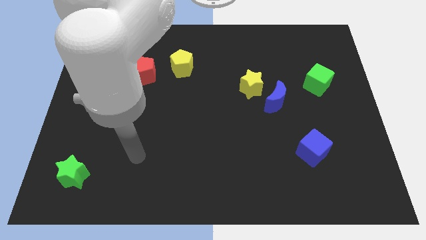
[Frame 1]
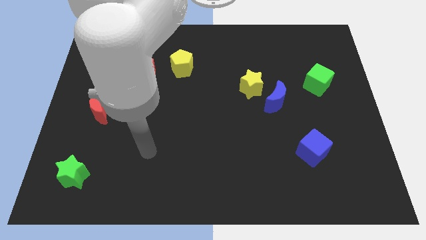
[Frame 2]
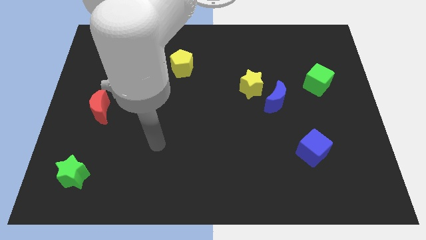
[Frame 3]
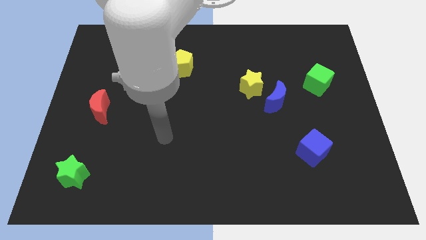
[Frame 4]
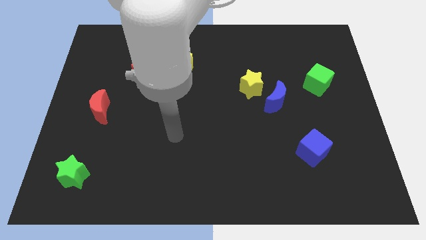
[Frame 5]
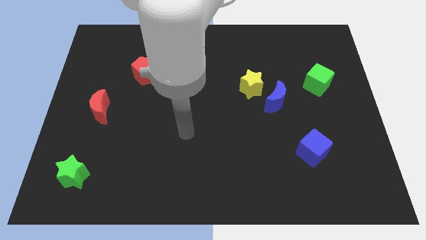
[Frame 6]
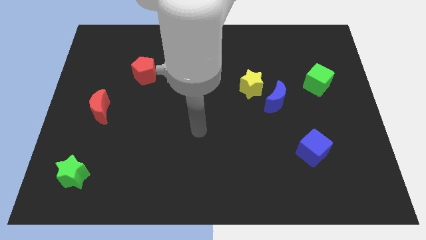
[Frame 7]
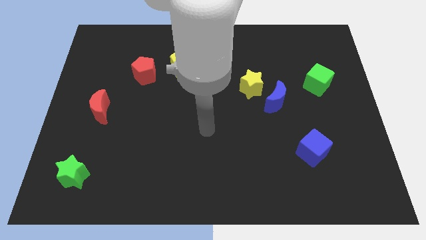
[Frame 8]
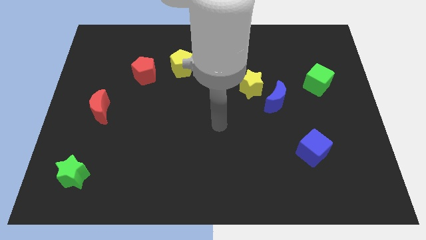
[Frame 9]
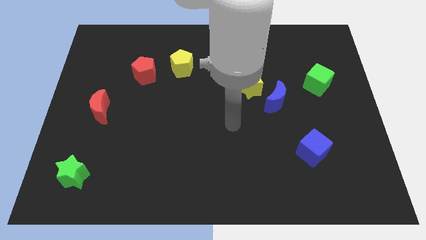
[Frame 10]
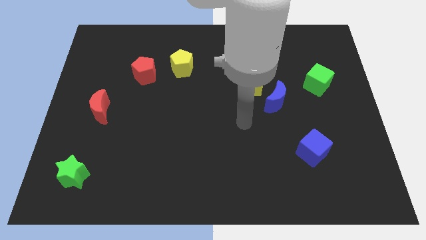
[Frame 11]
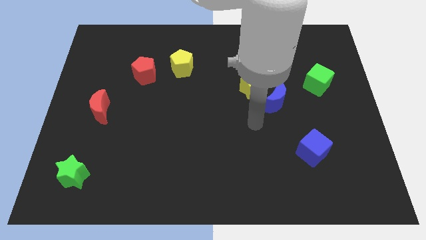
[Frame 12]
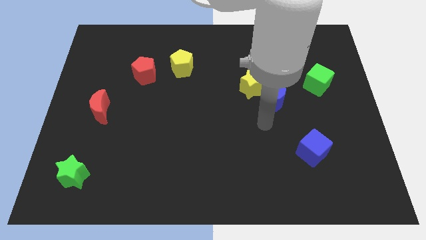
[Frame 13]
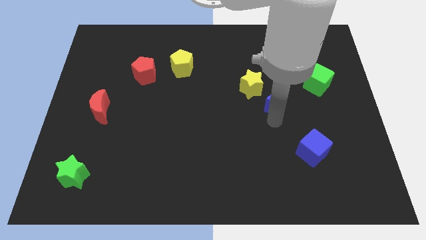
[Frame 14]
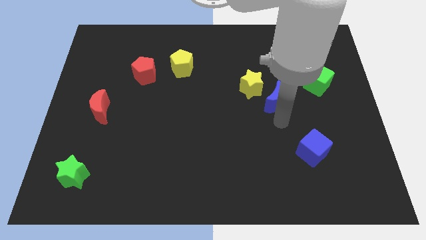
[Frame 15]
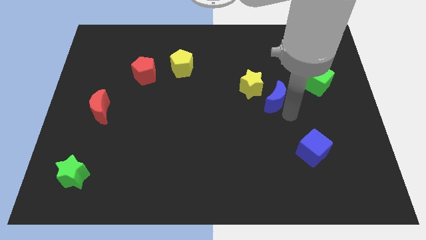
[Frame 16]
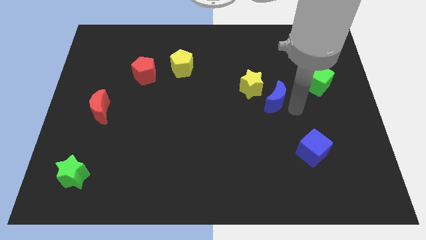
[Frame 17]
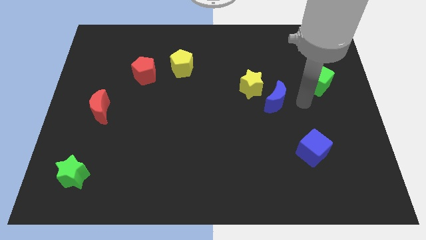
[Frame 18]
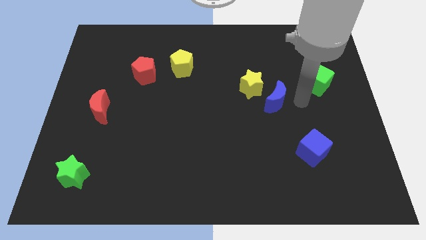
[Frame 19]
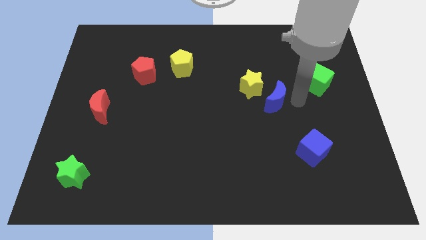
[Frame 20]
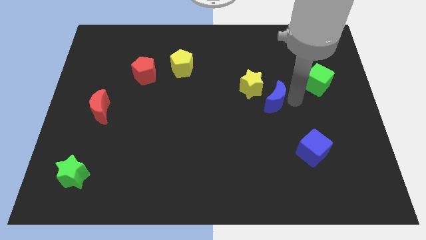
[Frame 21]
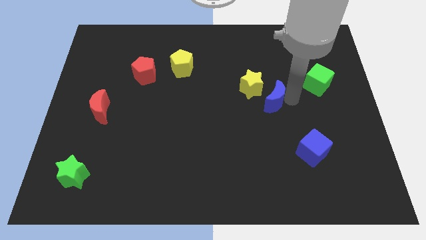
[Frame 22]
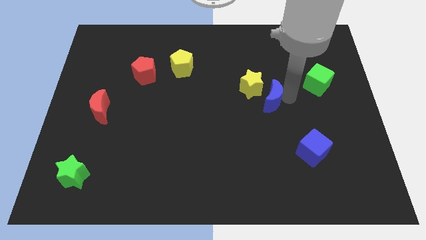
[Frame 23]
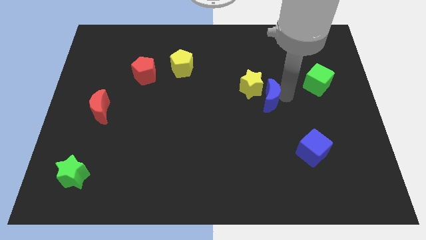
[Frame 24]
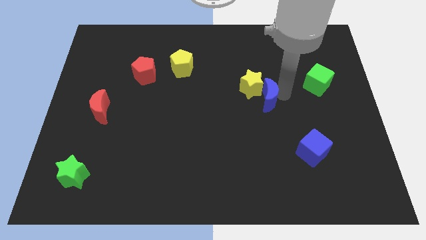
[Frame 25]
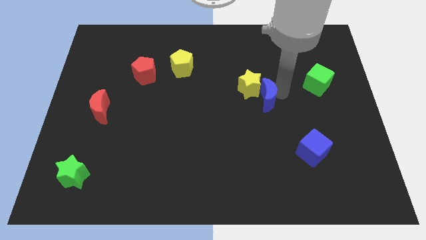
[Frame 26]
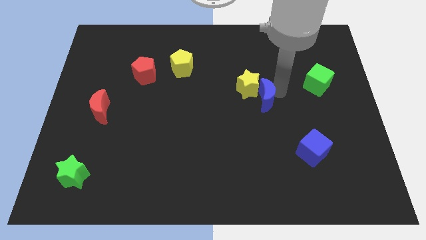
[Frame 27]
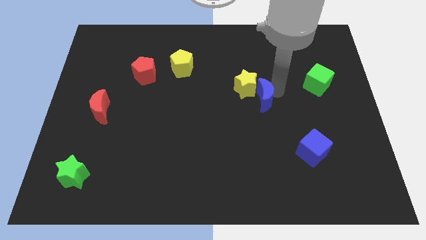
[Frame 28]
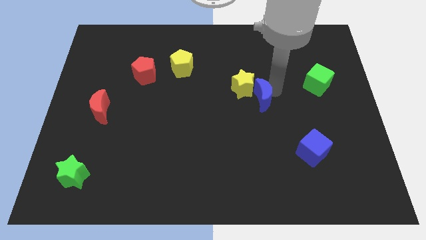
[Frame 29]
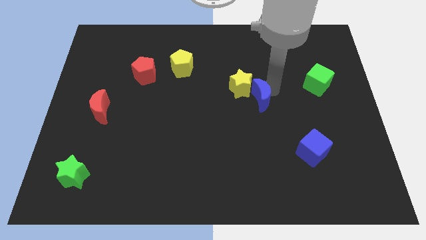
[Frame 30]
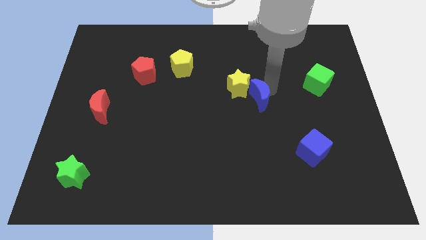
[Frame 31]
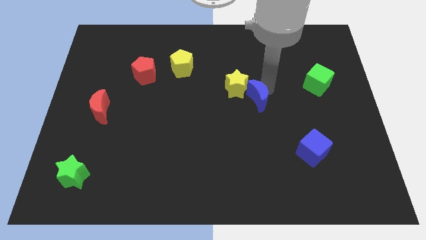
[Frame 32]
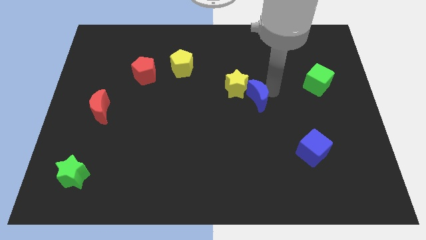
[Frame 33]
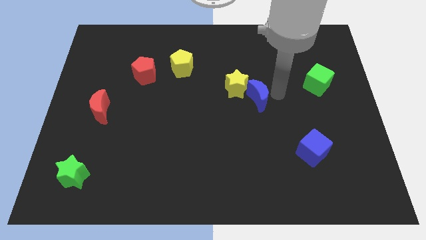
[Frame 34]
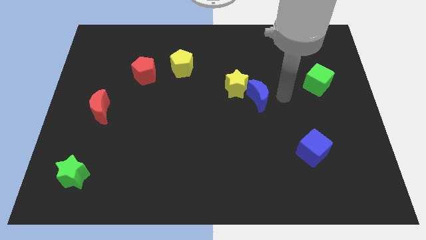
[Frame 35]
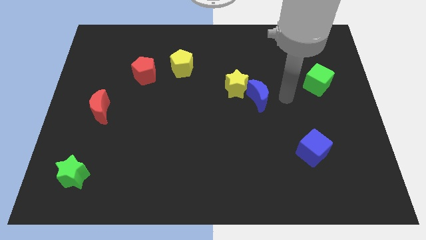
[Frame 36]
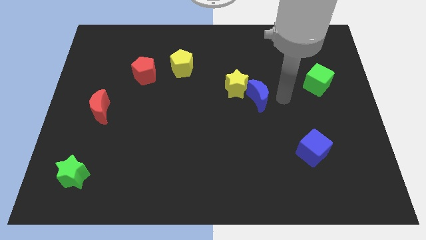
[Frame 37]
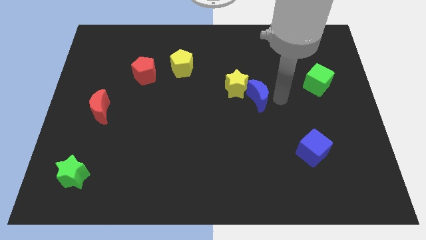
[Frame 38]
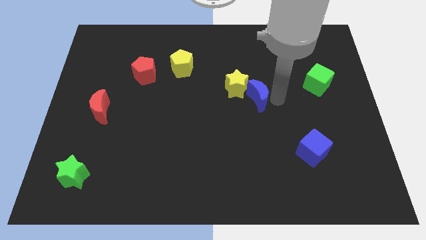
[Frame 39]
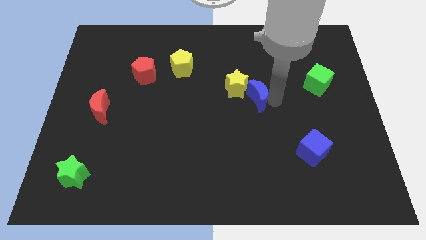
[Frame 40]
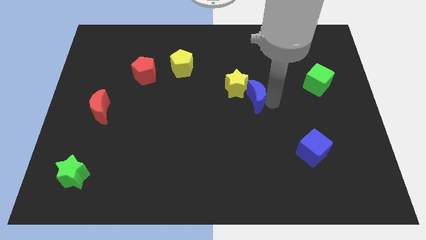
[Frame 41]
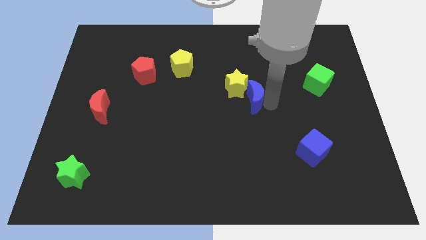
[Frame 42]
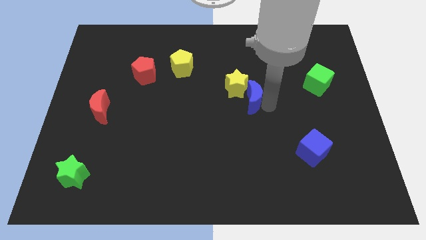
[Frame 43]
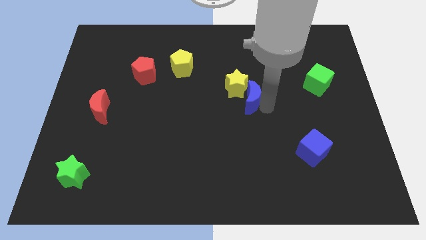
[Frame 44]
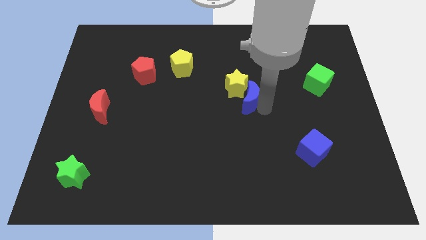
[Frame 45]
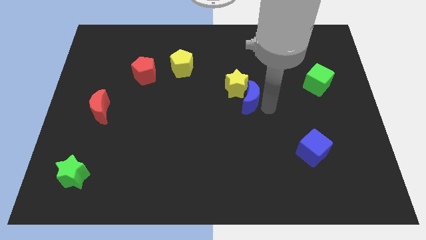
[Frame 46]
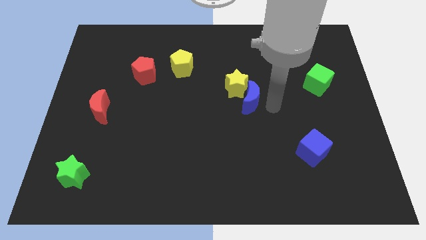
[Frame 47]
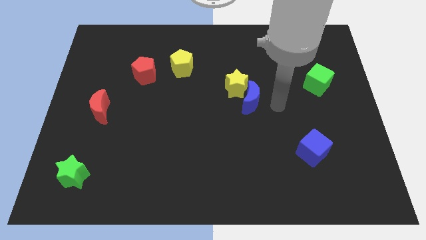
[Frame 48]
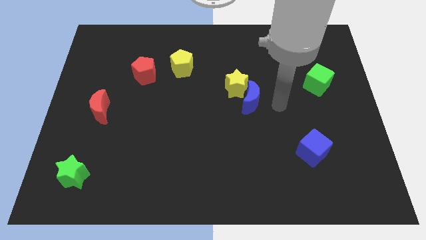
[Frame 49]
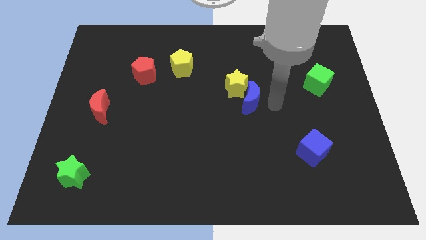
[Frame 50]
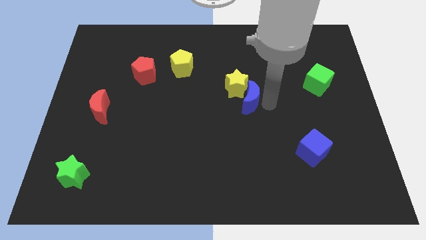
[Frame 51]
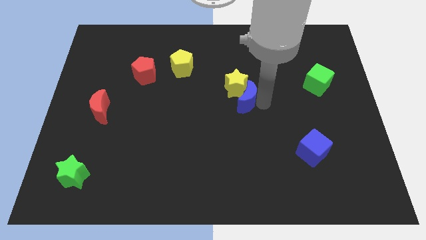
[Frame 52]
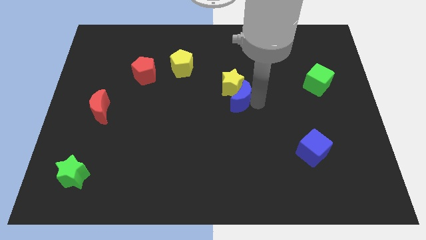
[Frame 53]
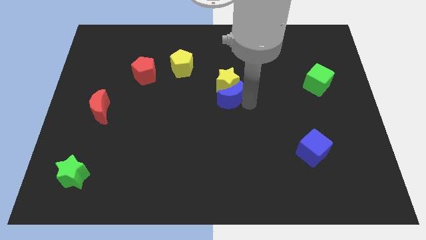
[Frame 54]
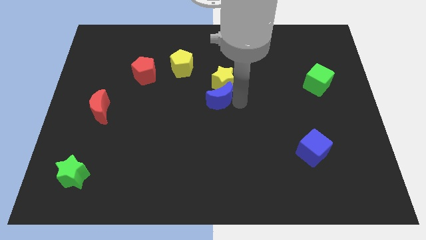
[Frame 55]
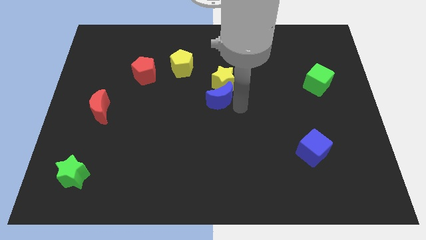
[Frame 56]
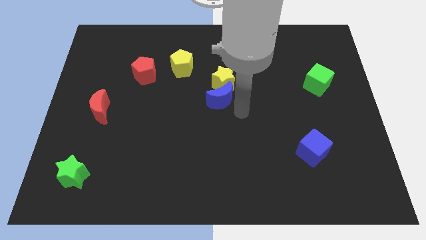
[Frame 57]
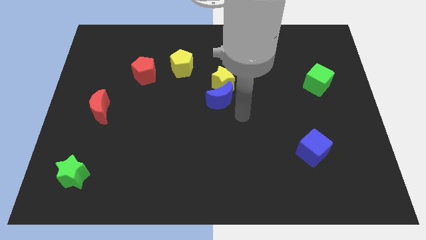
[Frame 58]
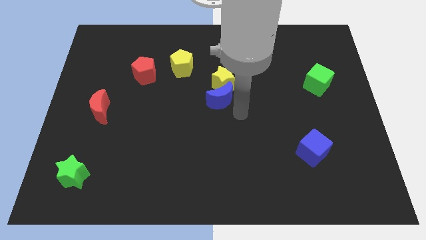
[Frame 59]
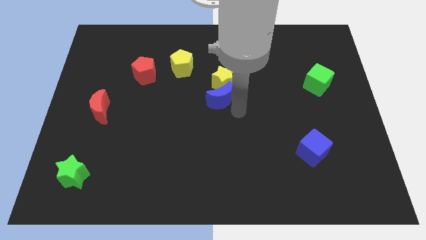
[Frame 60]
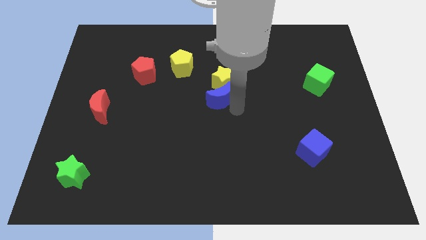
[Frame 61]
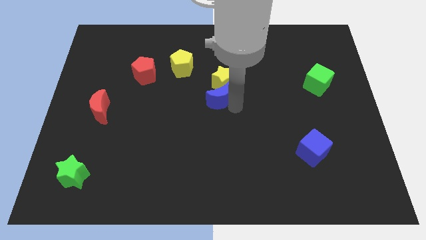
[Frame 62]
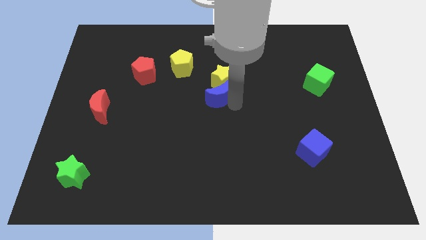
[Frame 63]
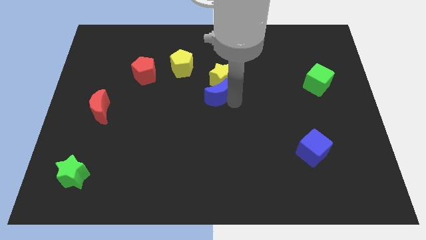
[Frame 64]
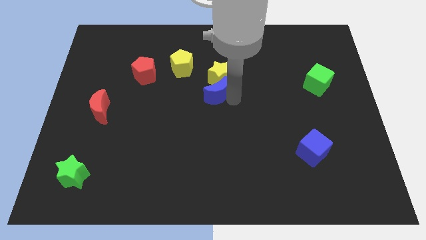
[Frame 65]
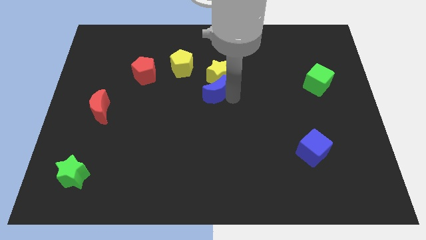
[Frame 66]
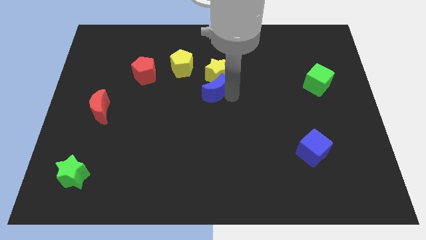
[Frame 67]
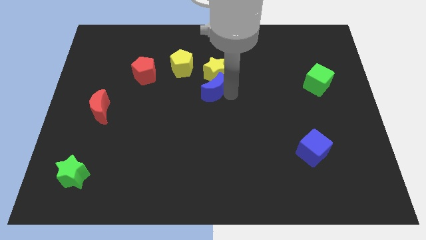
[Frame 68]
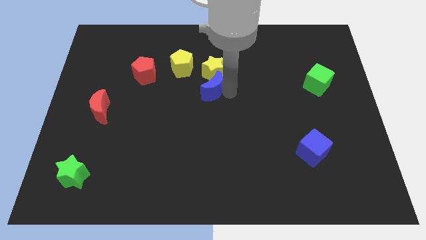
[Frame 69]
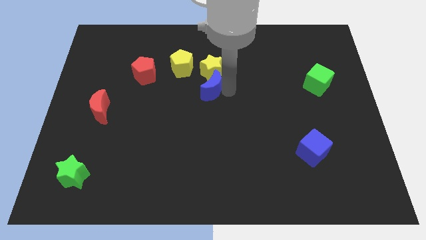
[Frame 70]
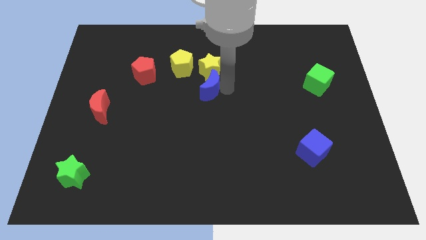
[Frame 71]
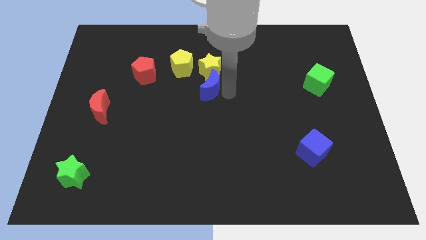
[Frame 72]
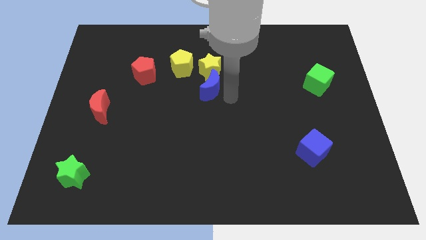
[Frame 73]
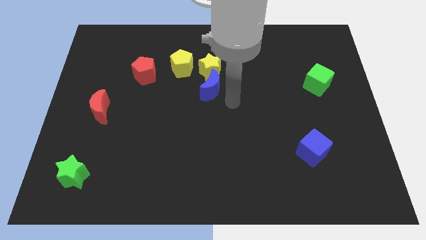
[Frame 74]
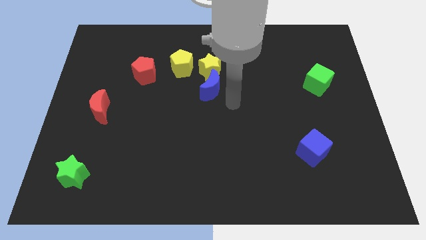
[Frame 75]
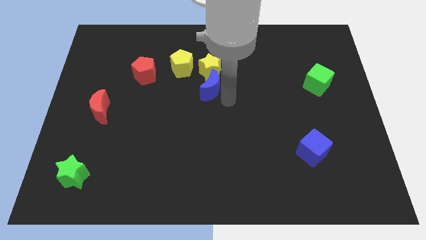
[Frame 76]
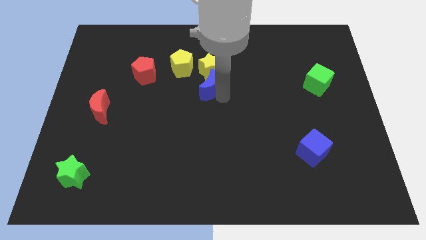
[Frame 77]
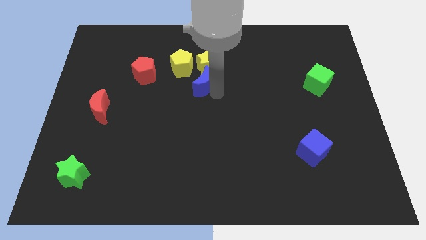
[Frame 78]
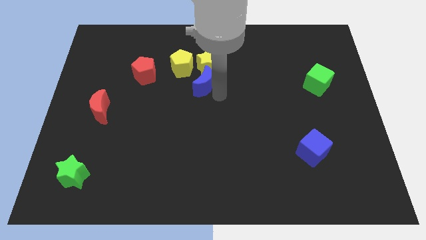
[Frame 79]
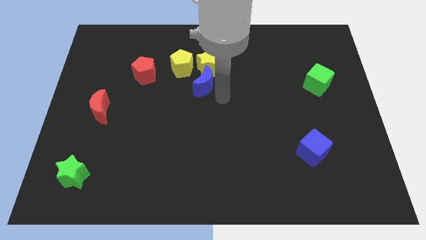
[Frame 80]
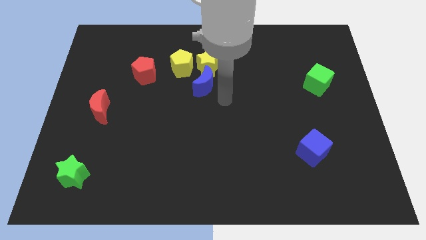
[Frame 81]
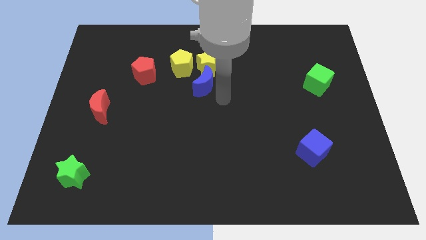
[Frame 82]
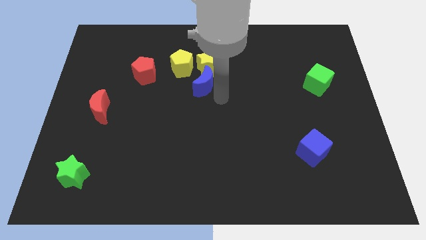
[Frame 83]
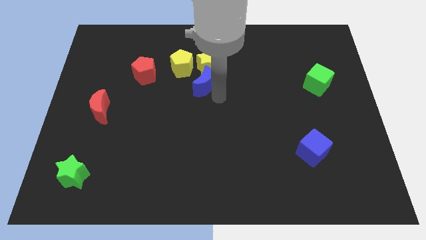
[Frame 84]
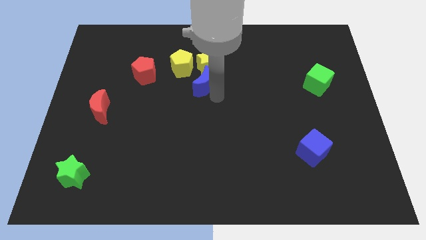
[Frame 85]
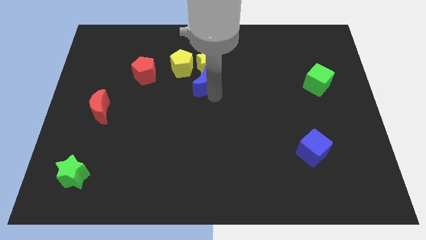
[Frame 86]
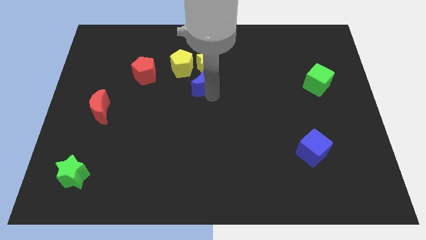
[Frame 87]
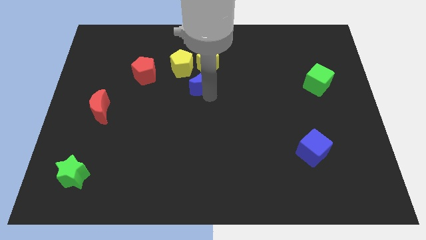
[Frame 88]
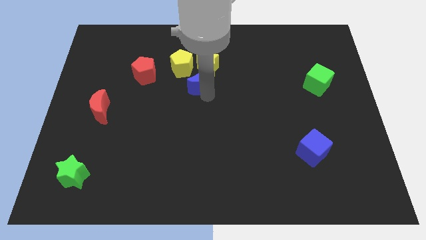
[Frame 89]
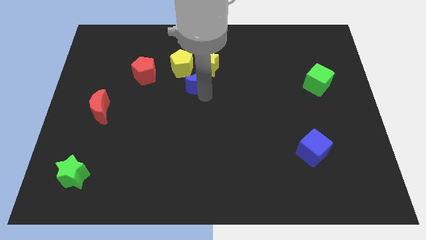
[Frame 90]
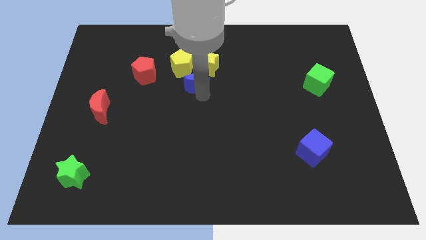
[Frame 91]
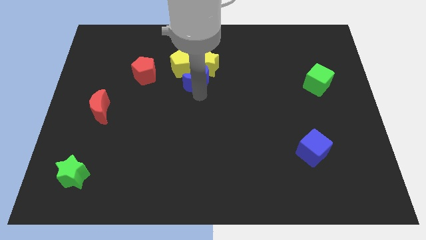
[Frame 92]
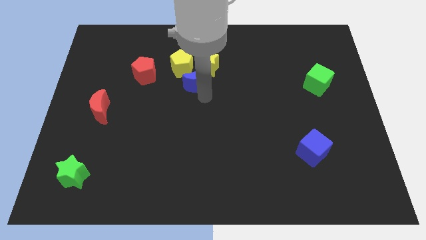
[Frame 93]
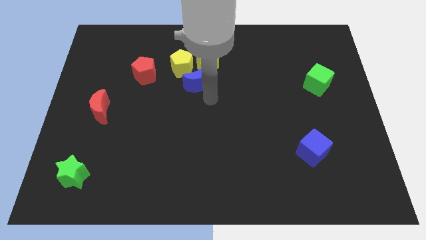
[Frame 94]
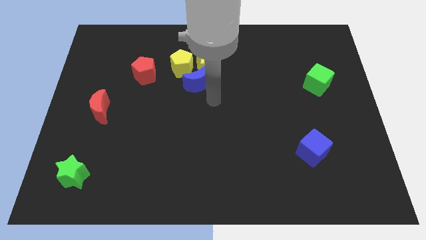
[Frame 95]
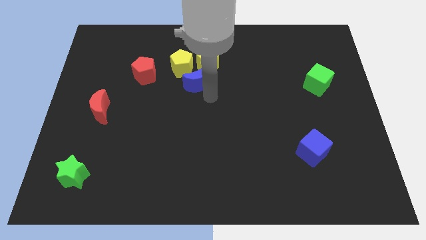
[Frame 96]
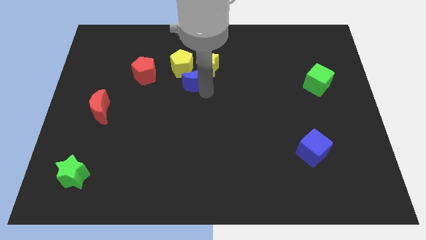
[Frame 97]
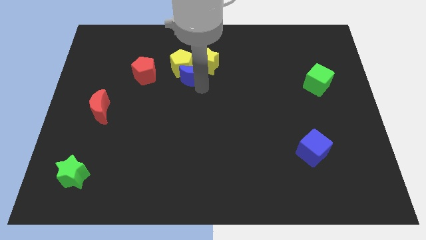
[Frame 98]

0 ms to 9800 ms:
slide the blue moon next to the yellow pentagon
